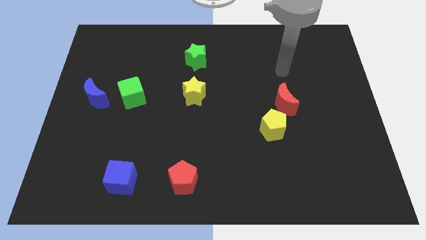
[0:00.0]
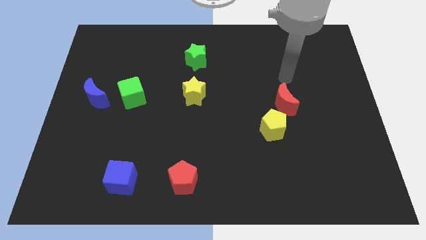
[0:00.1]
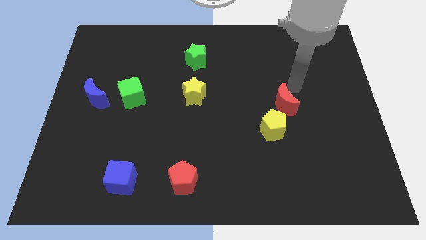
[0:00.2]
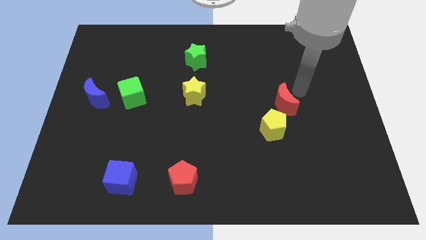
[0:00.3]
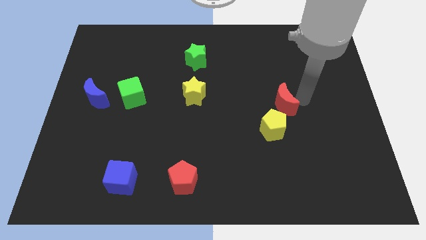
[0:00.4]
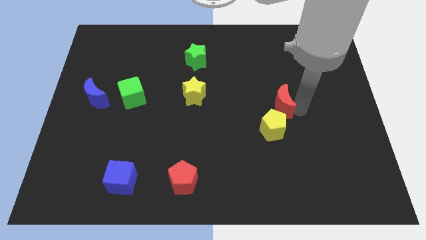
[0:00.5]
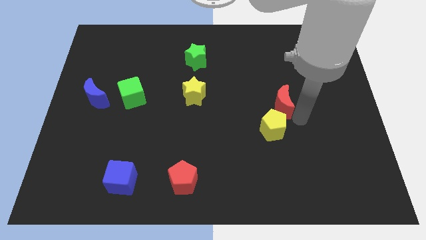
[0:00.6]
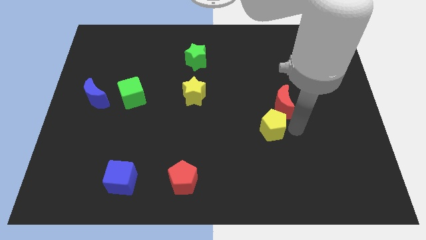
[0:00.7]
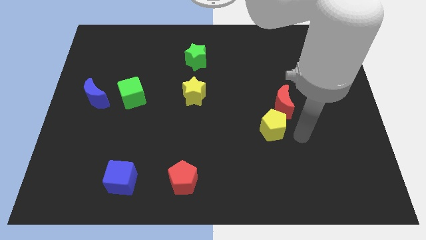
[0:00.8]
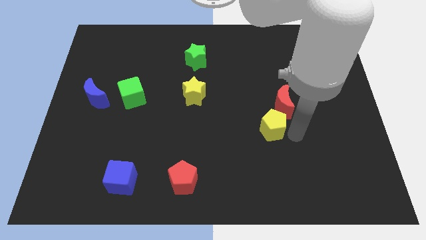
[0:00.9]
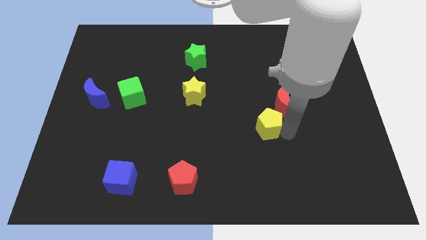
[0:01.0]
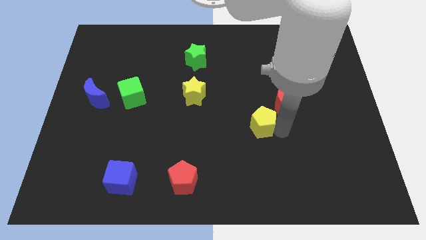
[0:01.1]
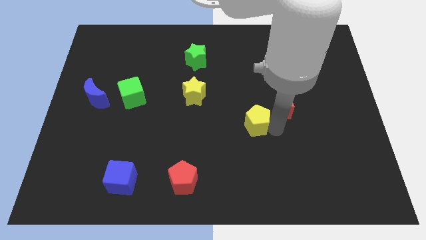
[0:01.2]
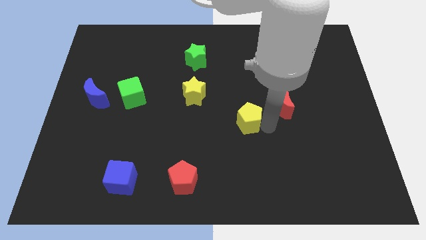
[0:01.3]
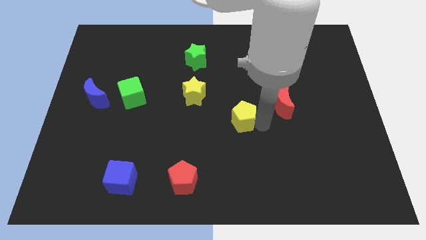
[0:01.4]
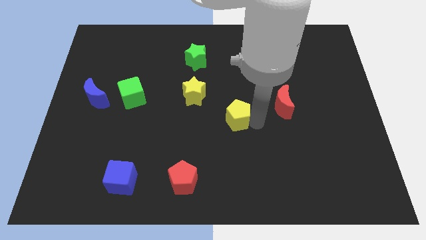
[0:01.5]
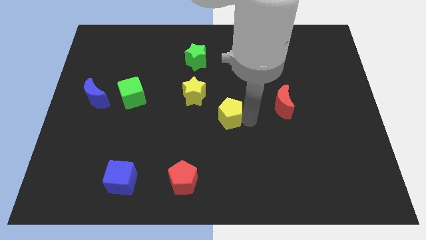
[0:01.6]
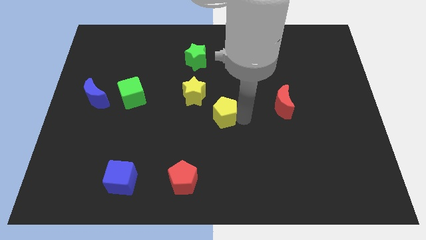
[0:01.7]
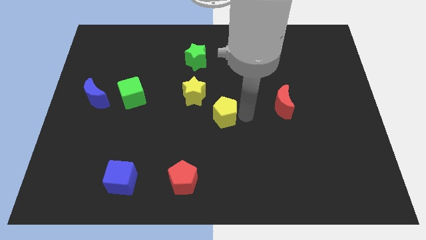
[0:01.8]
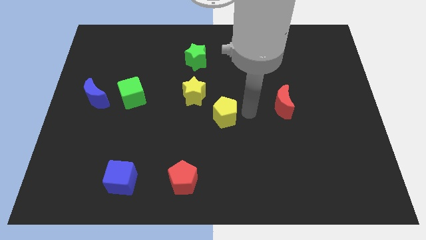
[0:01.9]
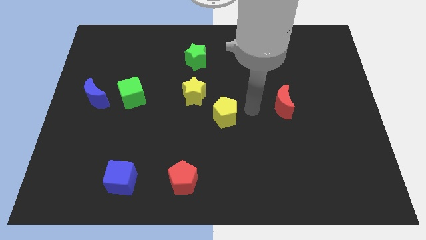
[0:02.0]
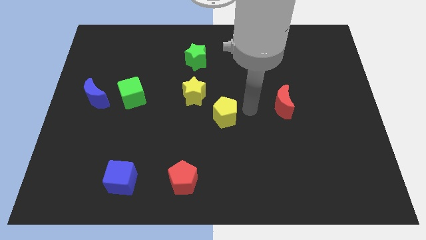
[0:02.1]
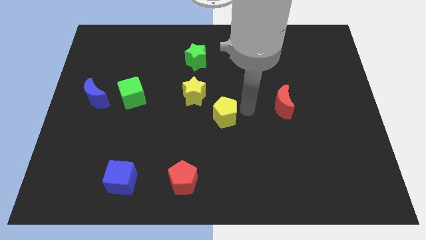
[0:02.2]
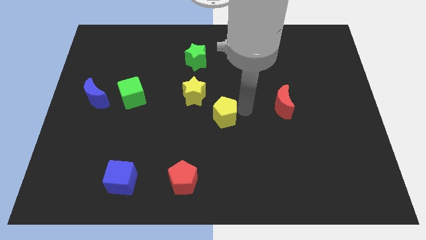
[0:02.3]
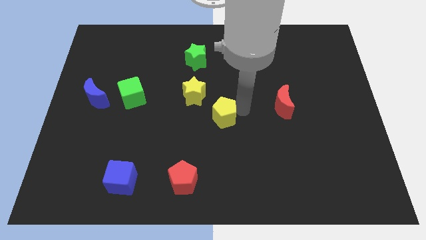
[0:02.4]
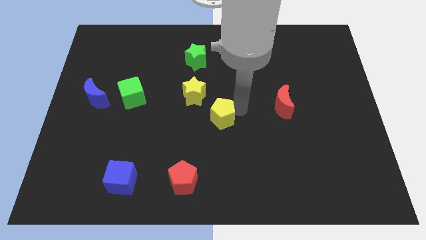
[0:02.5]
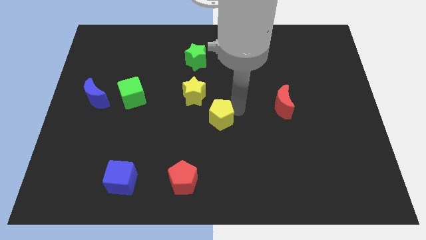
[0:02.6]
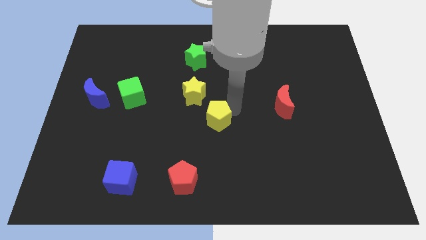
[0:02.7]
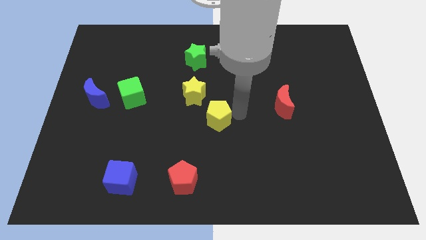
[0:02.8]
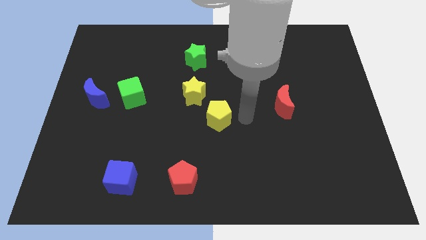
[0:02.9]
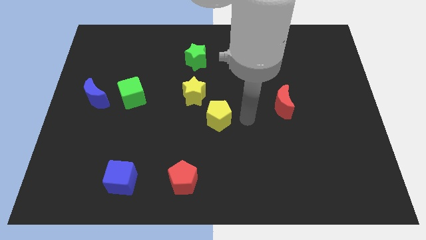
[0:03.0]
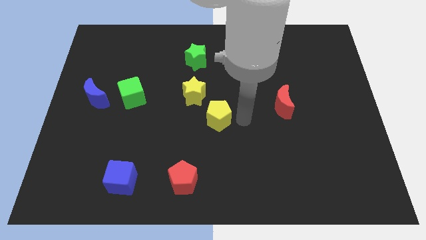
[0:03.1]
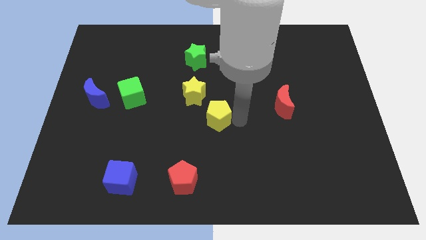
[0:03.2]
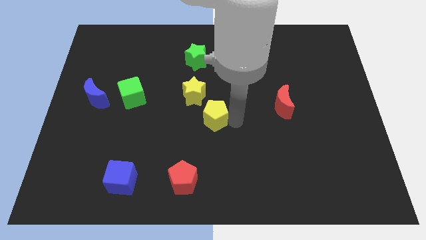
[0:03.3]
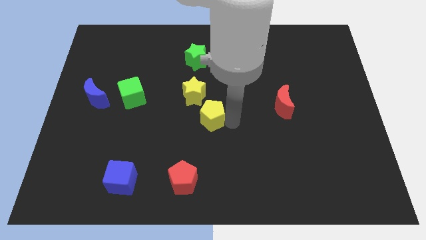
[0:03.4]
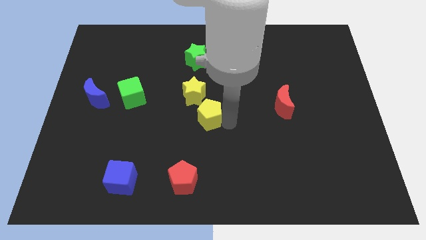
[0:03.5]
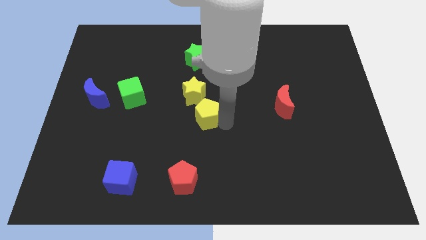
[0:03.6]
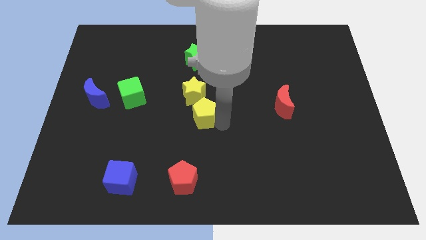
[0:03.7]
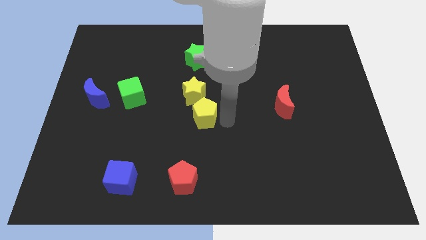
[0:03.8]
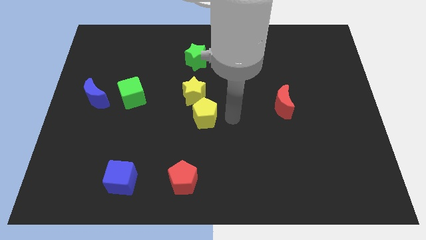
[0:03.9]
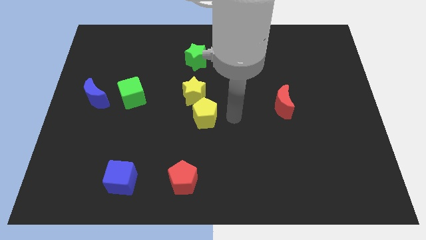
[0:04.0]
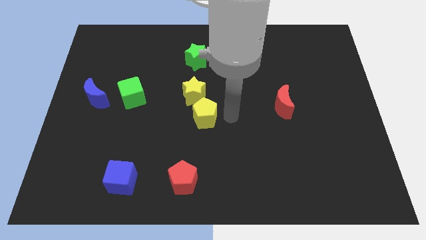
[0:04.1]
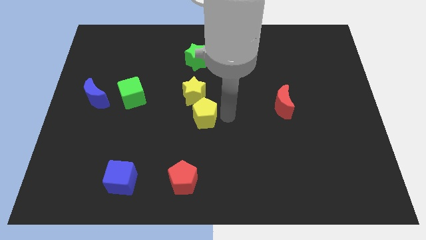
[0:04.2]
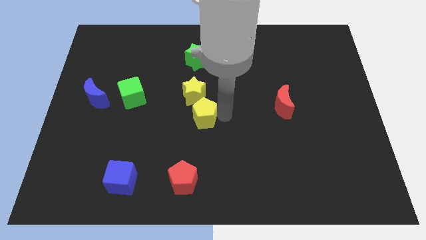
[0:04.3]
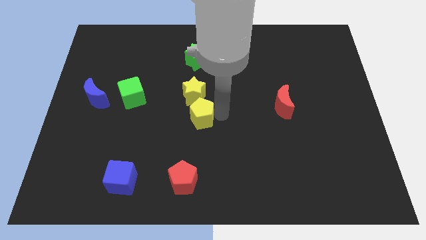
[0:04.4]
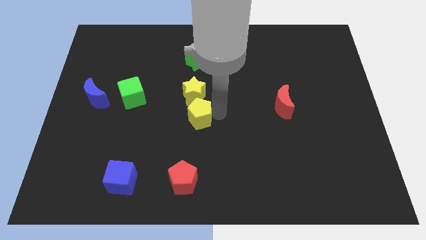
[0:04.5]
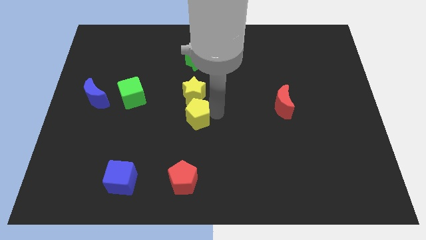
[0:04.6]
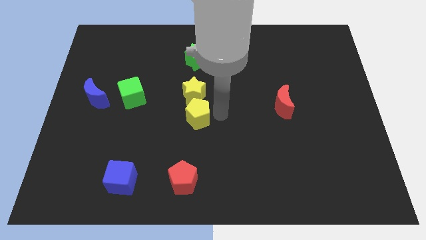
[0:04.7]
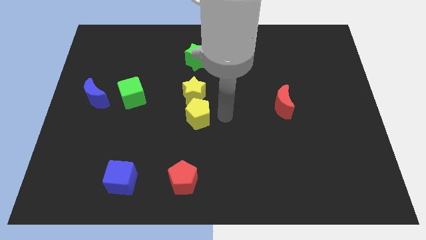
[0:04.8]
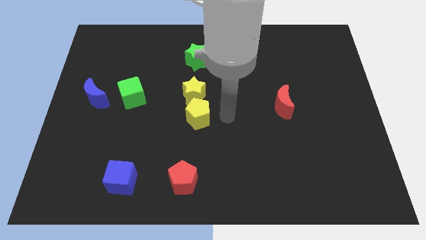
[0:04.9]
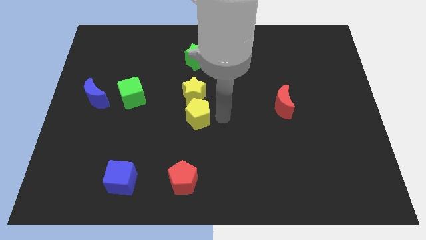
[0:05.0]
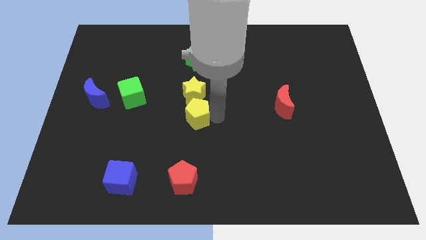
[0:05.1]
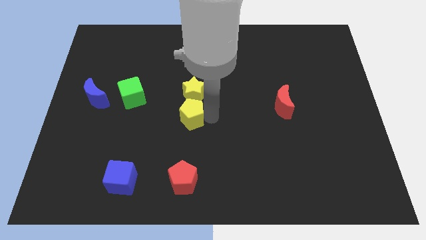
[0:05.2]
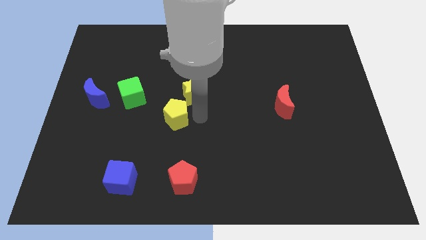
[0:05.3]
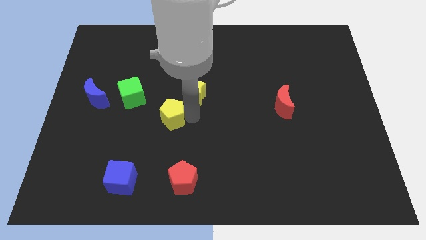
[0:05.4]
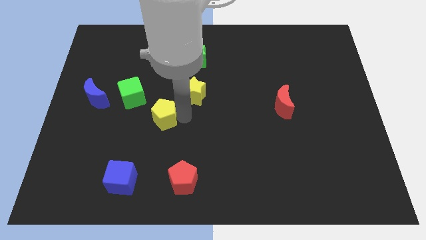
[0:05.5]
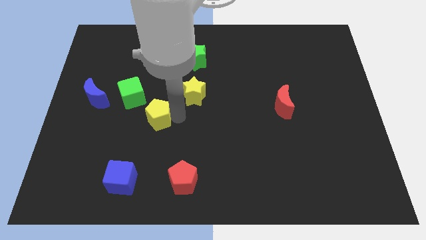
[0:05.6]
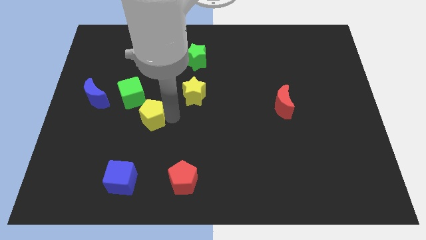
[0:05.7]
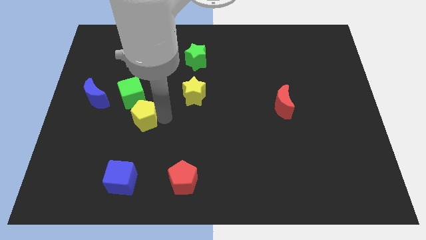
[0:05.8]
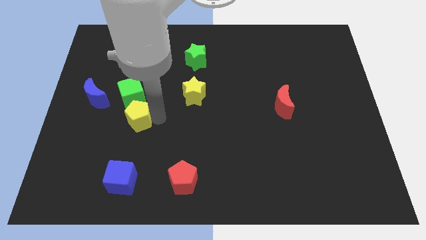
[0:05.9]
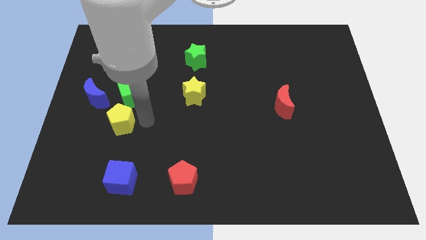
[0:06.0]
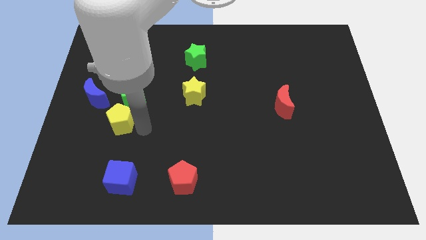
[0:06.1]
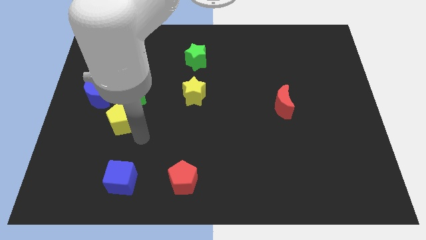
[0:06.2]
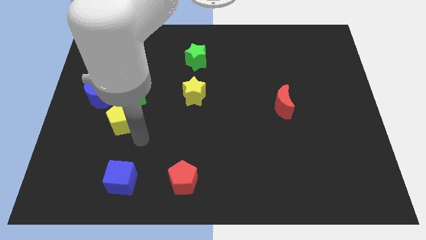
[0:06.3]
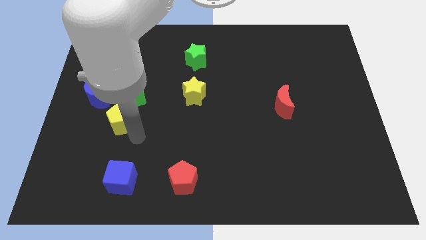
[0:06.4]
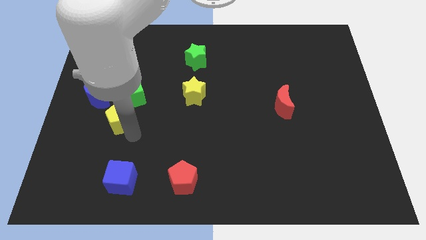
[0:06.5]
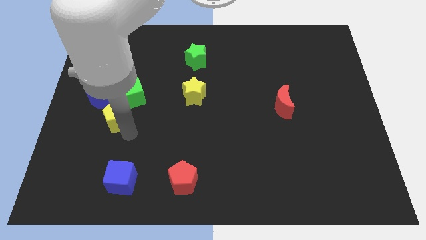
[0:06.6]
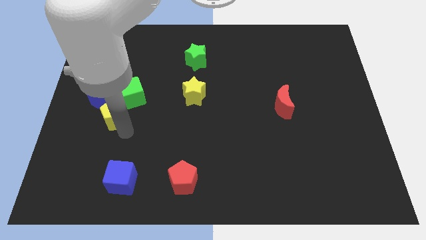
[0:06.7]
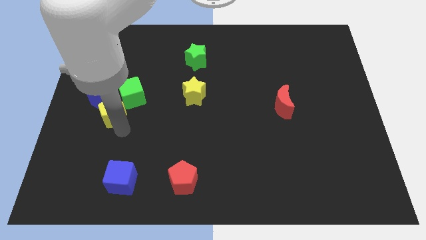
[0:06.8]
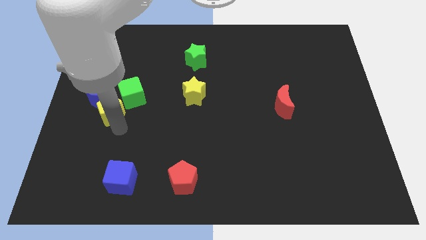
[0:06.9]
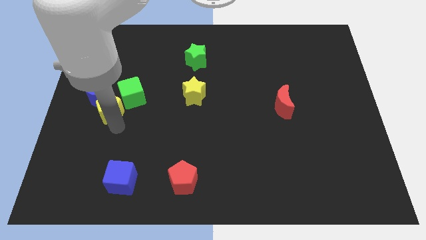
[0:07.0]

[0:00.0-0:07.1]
move the yellow pentagon to the blue moon

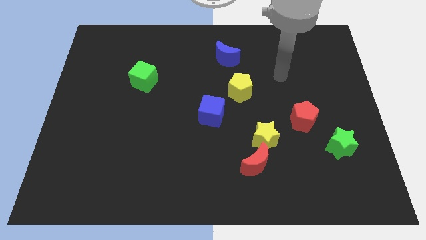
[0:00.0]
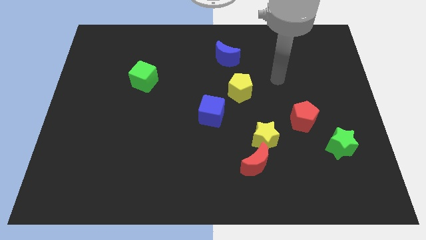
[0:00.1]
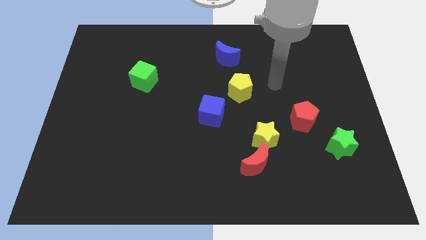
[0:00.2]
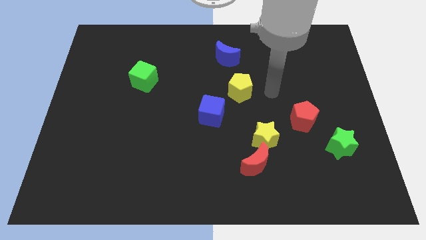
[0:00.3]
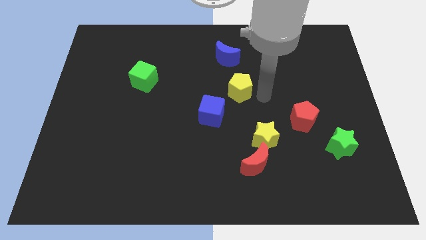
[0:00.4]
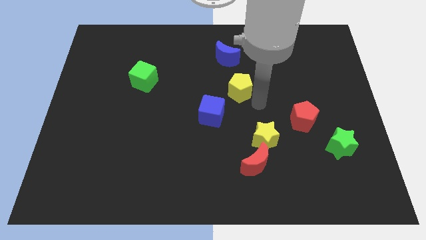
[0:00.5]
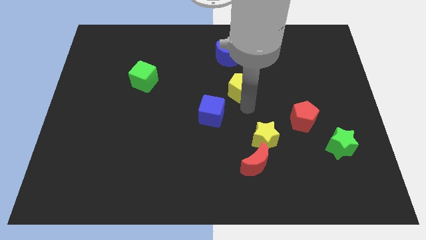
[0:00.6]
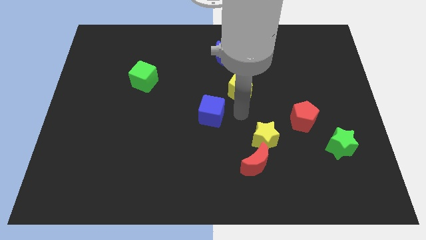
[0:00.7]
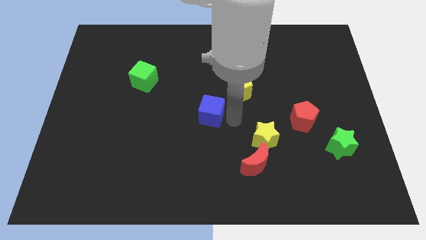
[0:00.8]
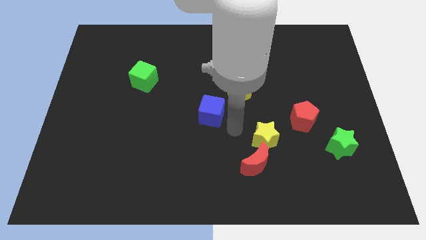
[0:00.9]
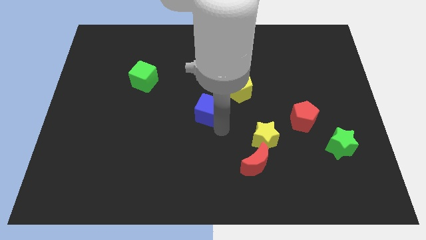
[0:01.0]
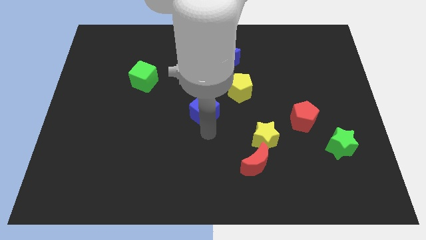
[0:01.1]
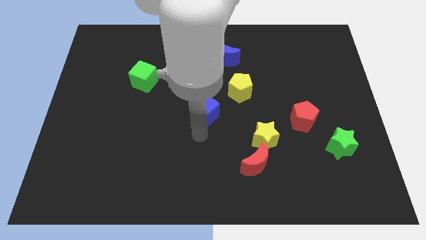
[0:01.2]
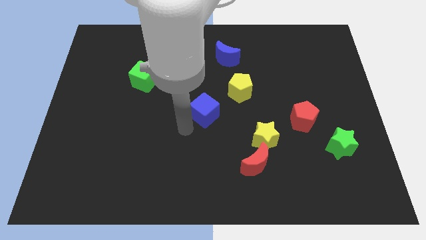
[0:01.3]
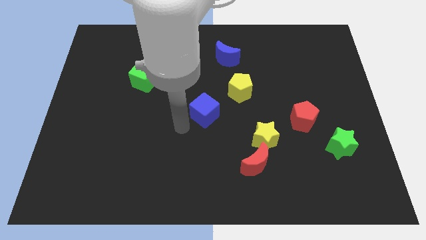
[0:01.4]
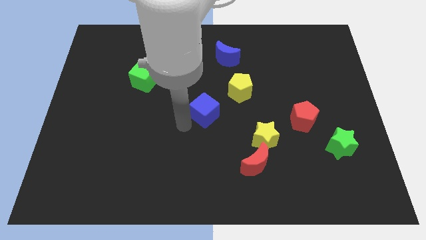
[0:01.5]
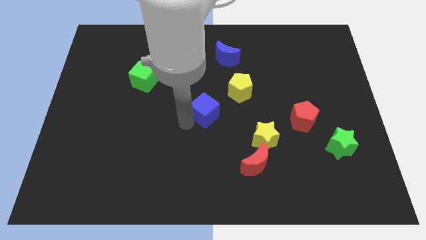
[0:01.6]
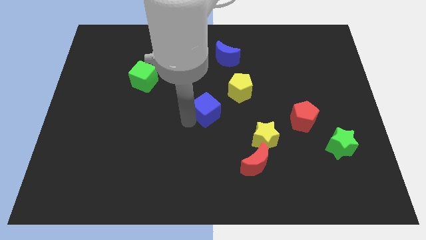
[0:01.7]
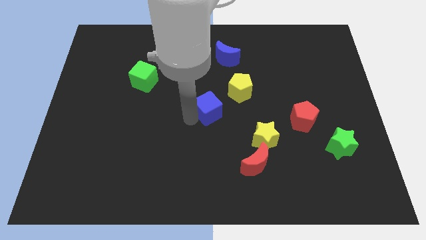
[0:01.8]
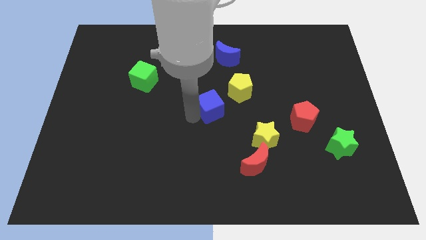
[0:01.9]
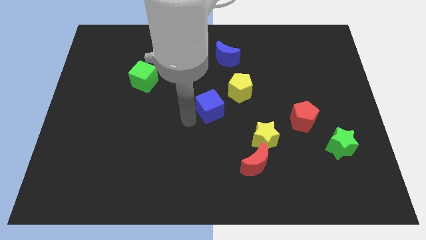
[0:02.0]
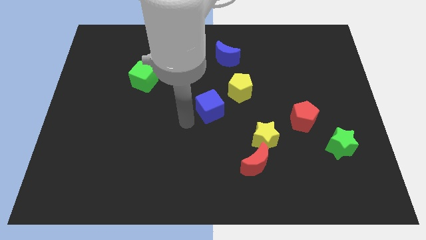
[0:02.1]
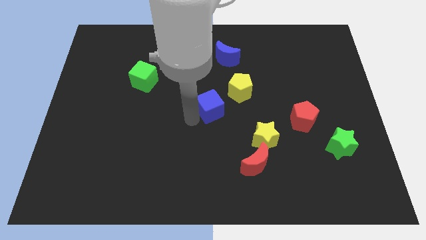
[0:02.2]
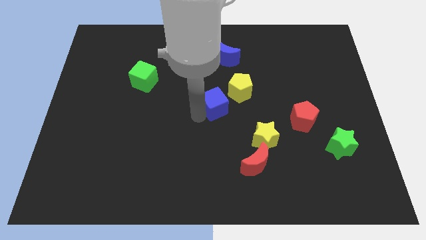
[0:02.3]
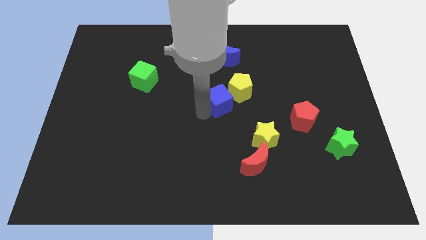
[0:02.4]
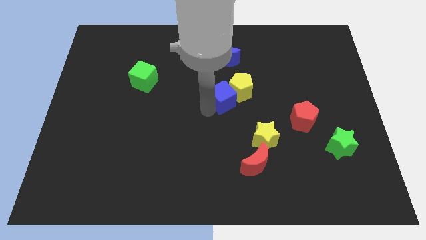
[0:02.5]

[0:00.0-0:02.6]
slide the blue cube towards the yellow pentagon
